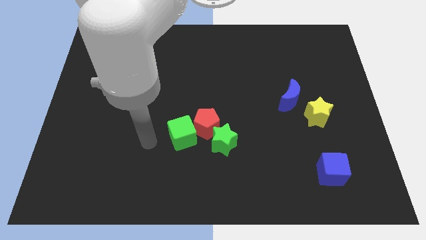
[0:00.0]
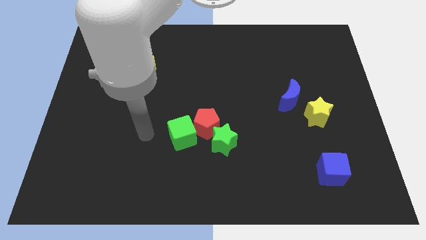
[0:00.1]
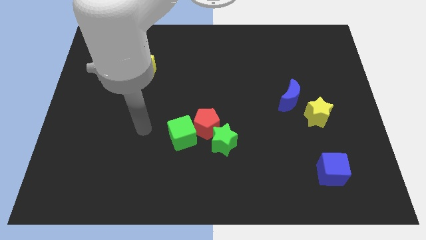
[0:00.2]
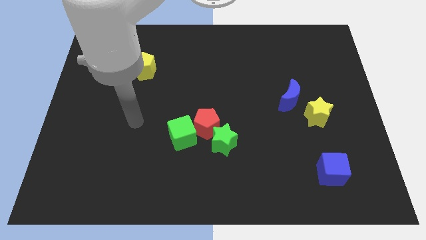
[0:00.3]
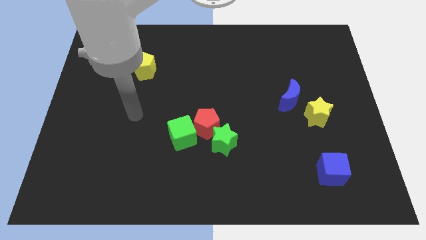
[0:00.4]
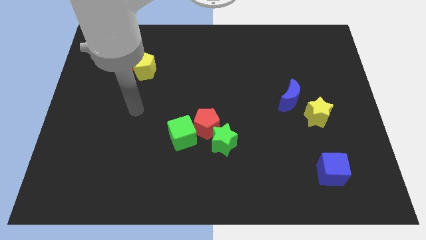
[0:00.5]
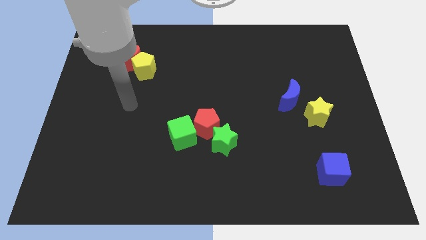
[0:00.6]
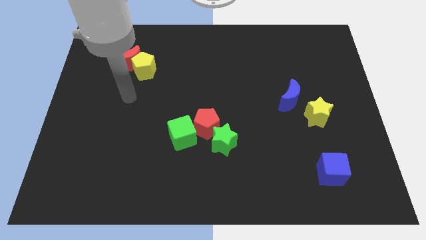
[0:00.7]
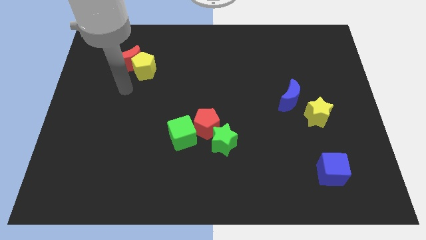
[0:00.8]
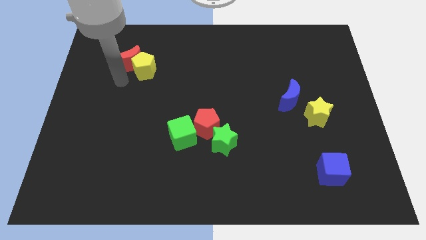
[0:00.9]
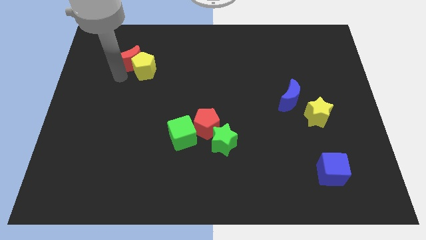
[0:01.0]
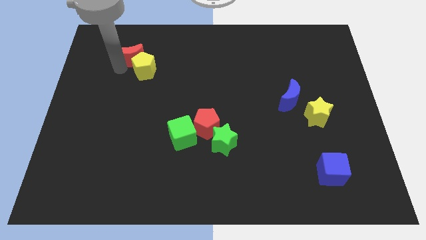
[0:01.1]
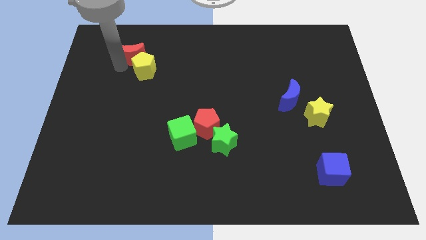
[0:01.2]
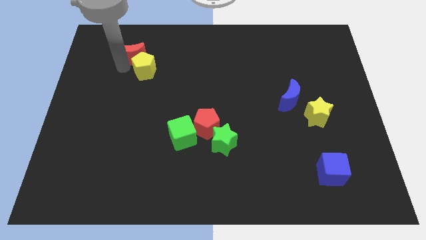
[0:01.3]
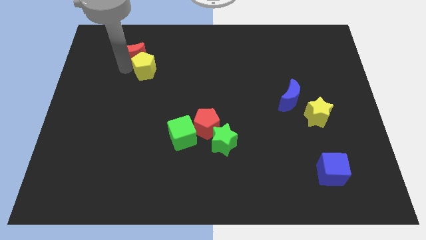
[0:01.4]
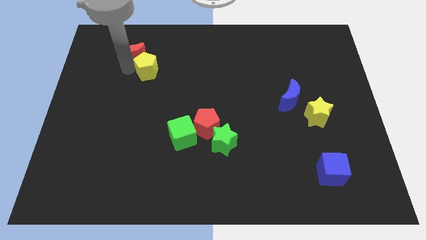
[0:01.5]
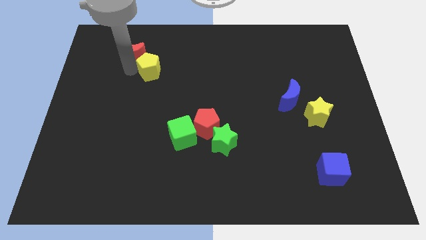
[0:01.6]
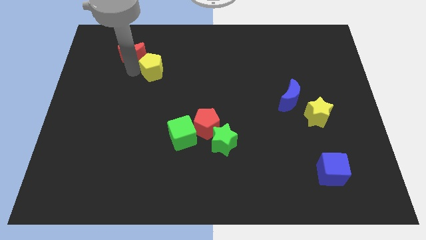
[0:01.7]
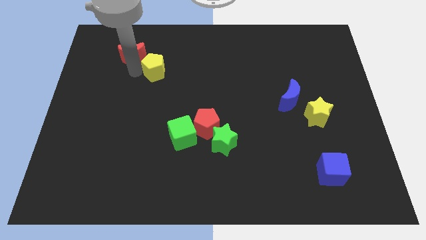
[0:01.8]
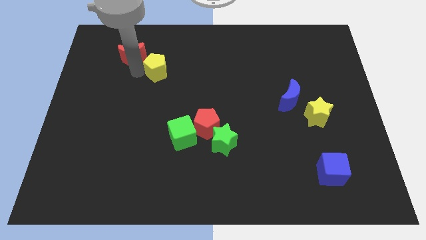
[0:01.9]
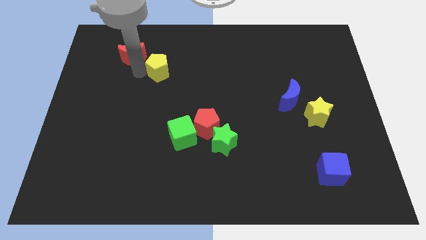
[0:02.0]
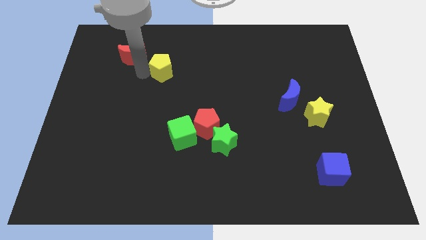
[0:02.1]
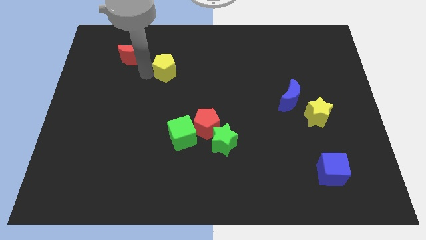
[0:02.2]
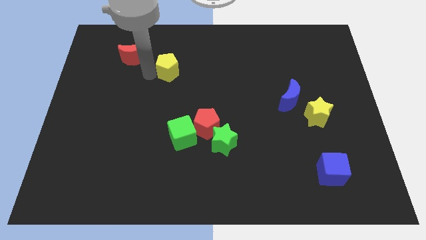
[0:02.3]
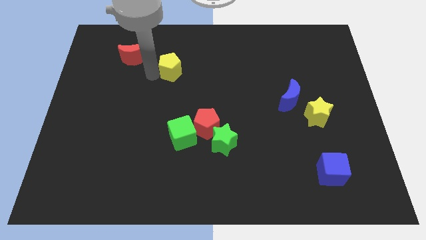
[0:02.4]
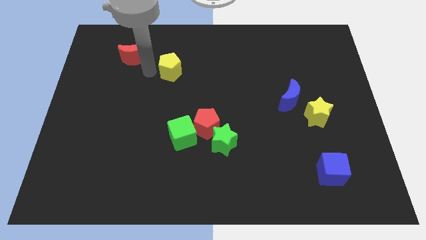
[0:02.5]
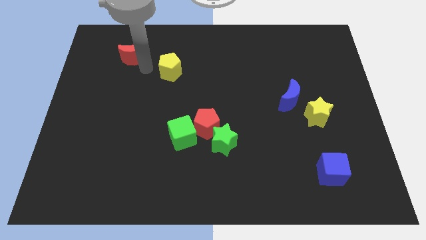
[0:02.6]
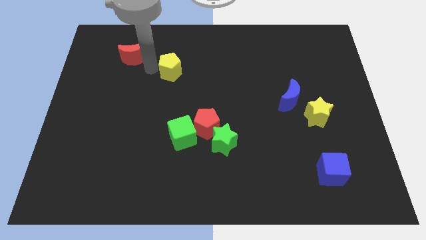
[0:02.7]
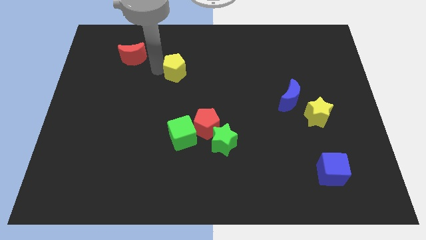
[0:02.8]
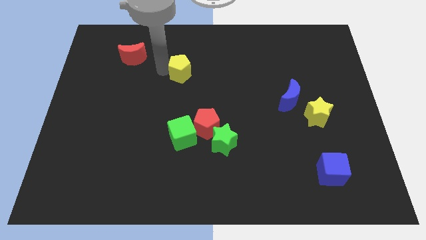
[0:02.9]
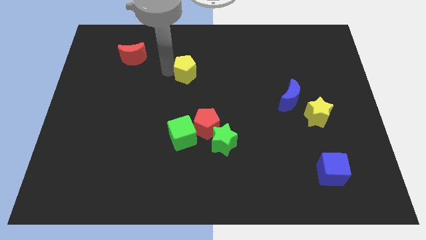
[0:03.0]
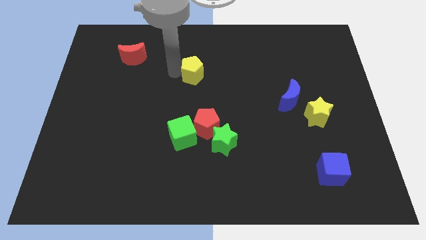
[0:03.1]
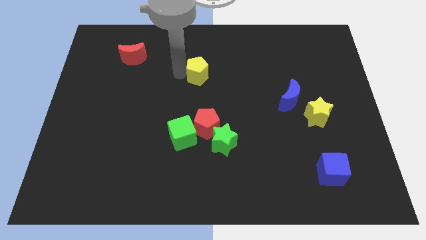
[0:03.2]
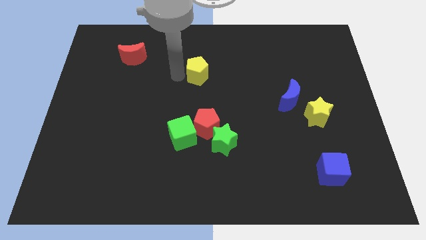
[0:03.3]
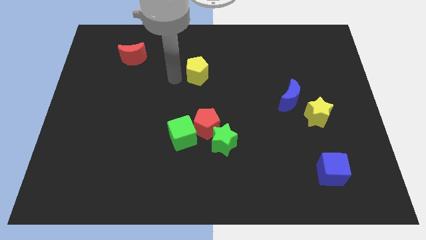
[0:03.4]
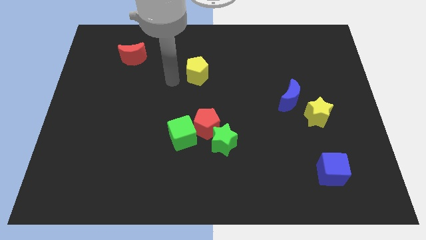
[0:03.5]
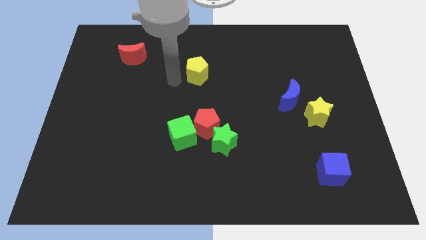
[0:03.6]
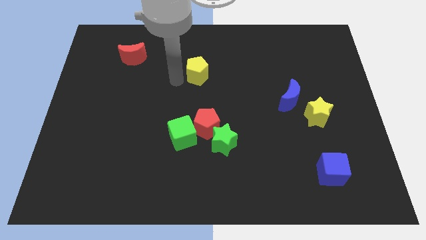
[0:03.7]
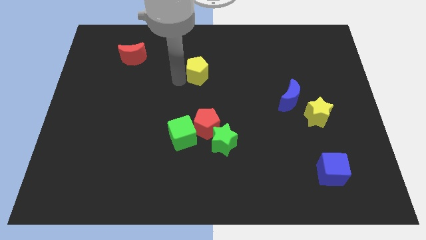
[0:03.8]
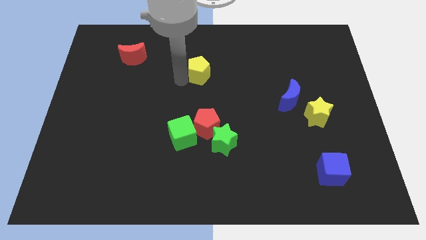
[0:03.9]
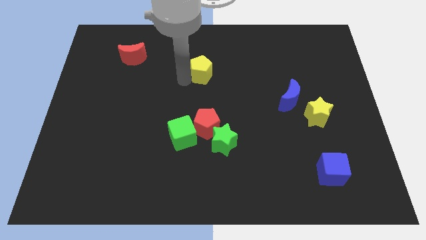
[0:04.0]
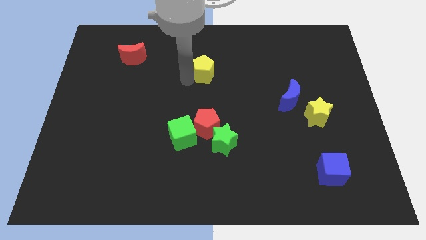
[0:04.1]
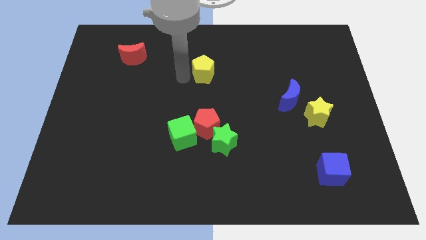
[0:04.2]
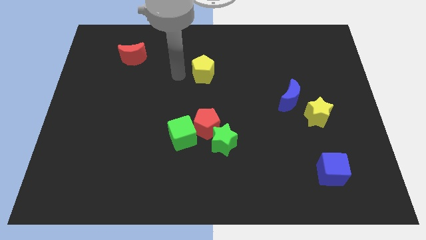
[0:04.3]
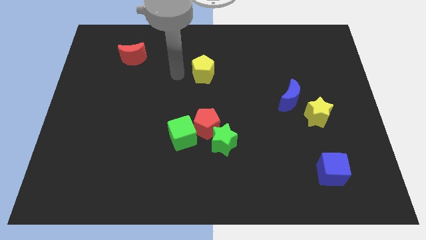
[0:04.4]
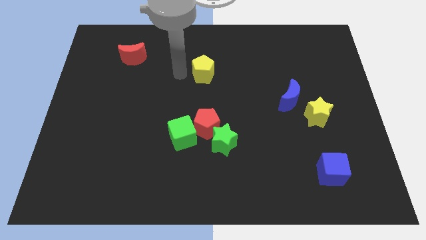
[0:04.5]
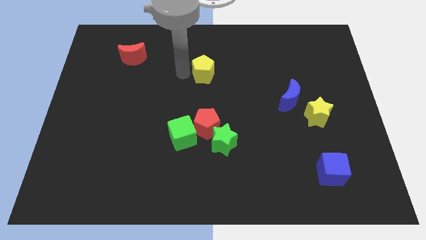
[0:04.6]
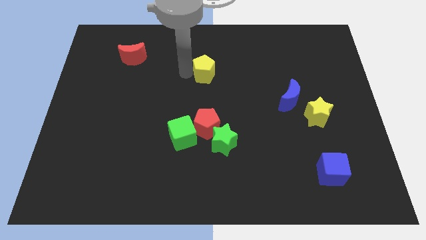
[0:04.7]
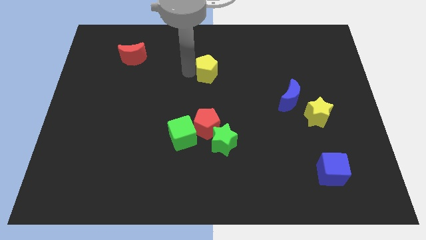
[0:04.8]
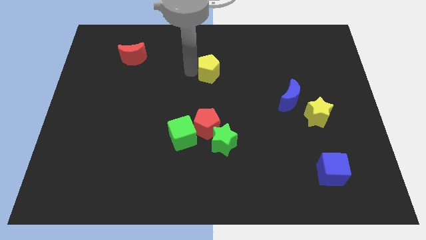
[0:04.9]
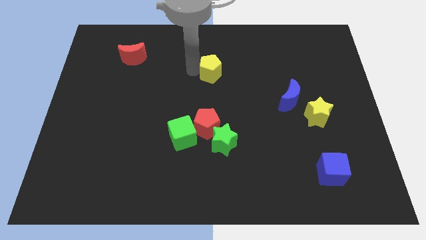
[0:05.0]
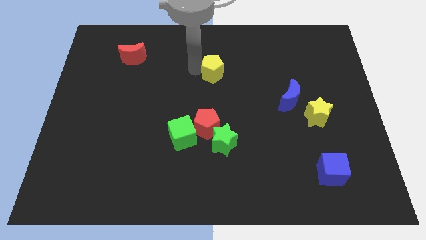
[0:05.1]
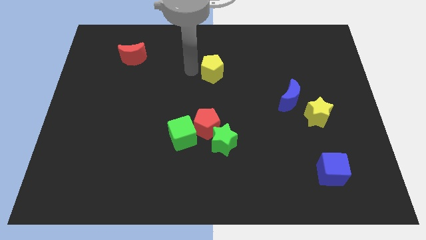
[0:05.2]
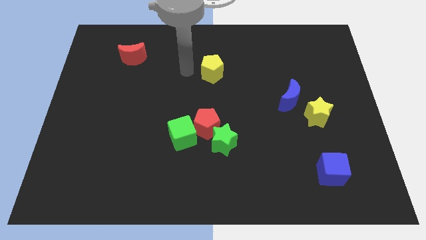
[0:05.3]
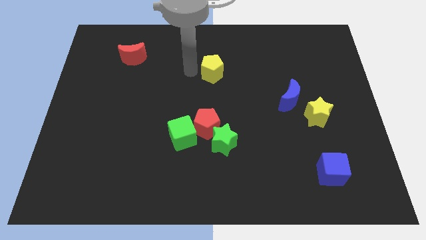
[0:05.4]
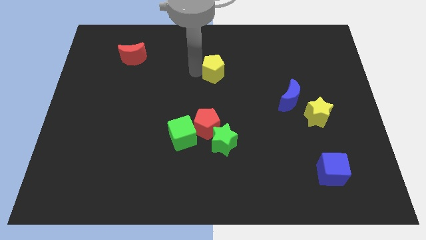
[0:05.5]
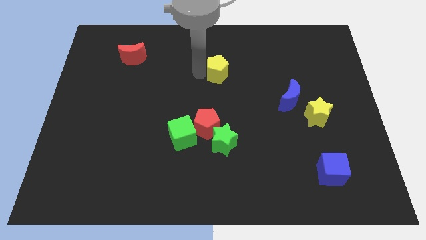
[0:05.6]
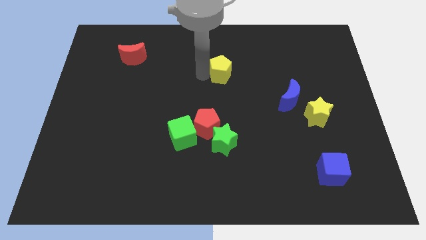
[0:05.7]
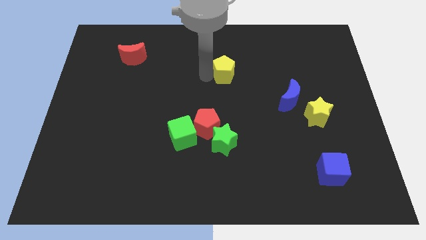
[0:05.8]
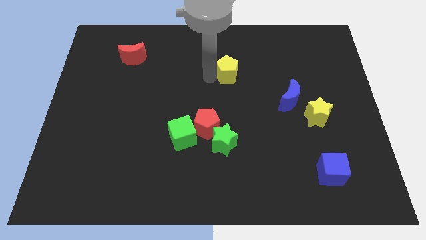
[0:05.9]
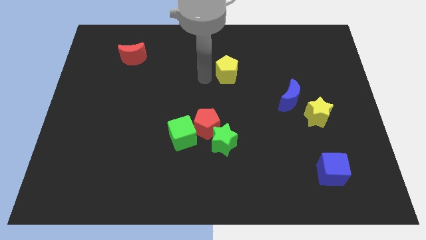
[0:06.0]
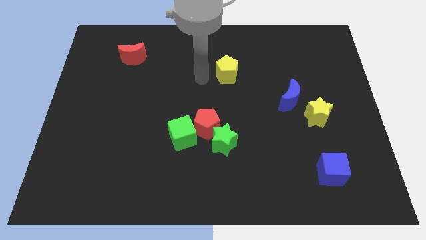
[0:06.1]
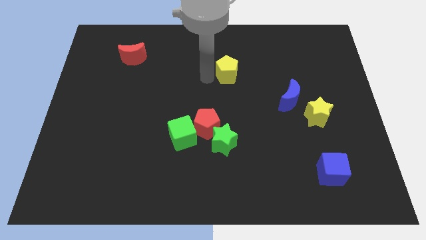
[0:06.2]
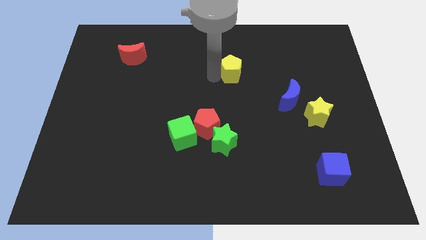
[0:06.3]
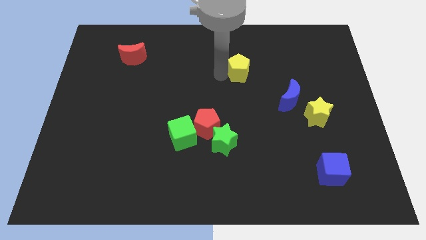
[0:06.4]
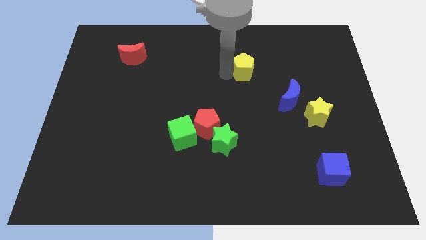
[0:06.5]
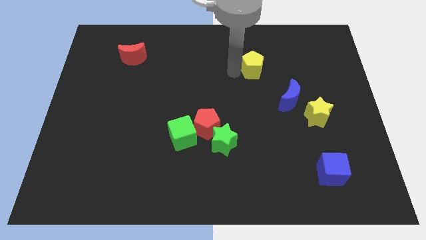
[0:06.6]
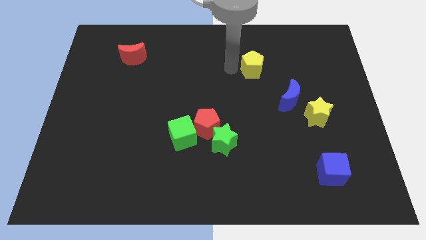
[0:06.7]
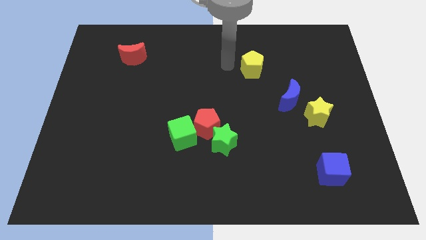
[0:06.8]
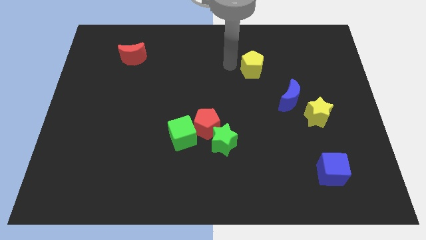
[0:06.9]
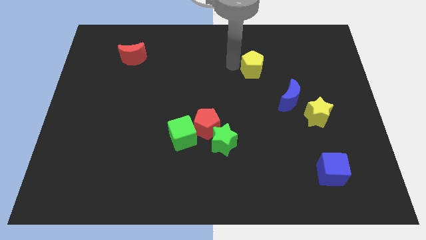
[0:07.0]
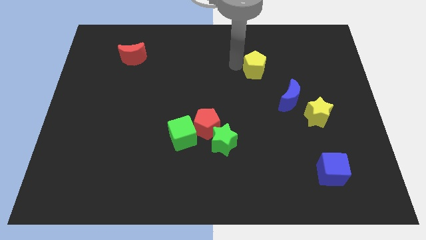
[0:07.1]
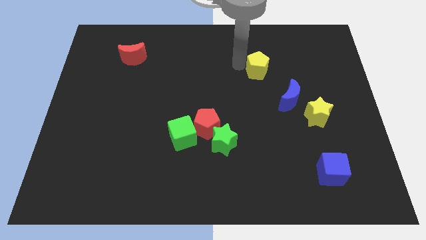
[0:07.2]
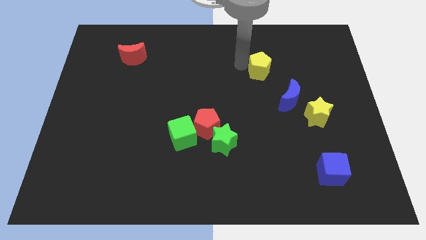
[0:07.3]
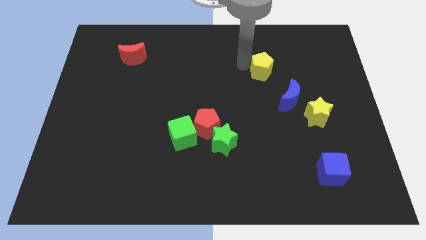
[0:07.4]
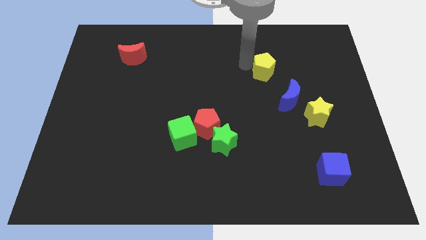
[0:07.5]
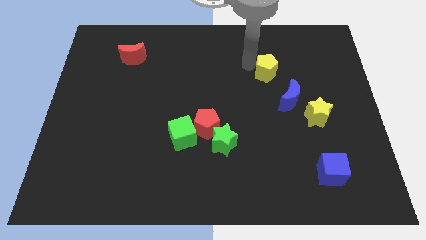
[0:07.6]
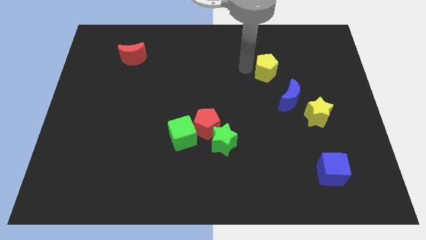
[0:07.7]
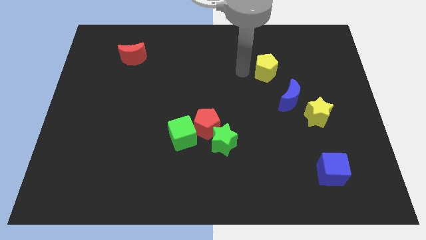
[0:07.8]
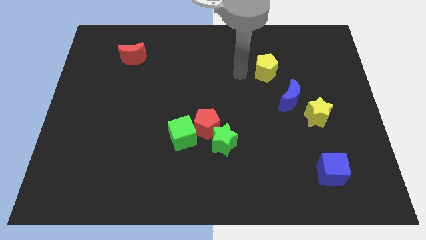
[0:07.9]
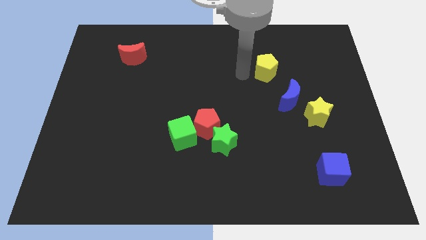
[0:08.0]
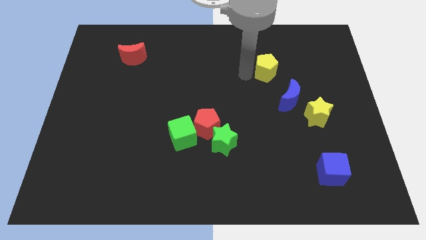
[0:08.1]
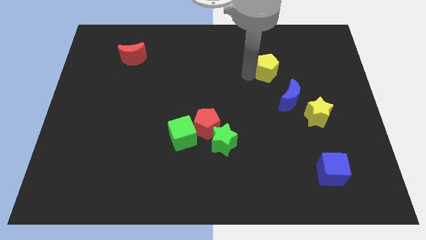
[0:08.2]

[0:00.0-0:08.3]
put the yellow pentagon to the top side of the blue moon
